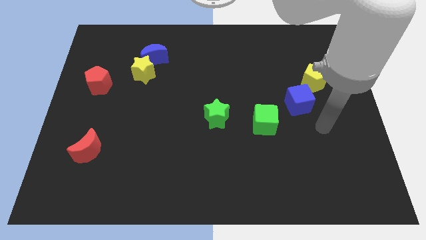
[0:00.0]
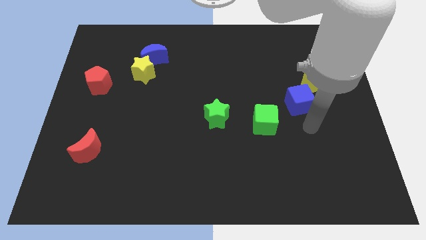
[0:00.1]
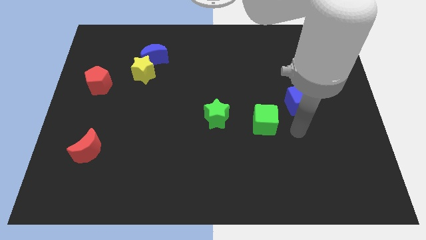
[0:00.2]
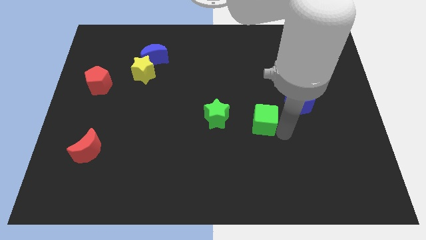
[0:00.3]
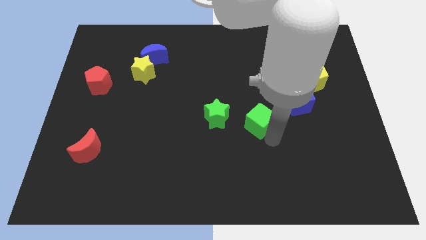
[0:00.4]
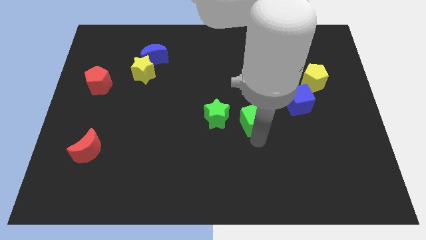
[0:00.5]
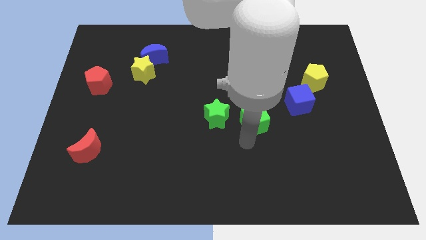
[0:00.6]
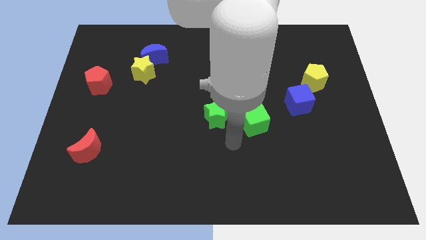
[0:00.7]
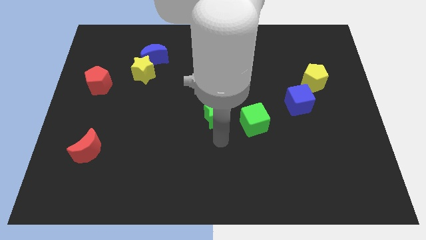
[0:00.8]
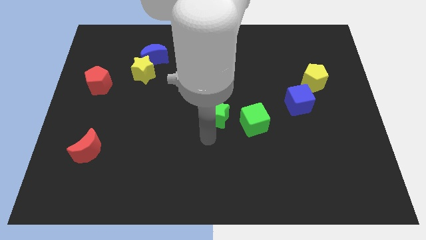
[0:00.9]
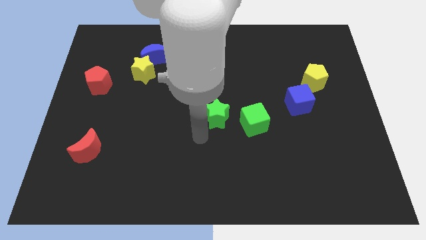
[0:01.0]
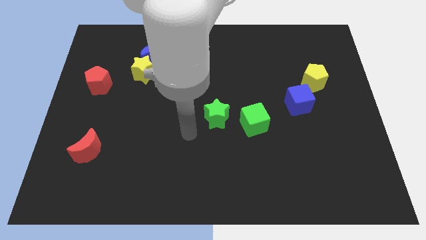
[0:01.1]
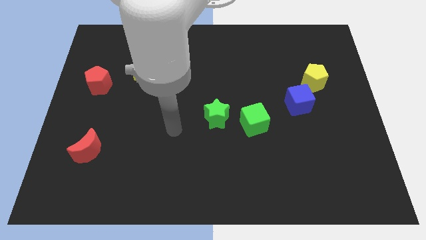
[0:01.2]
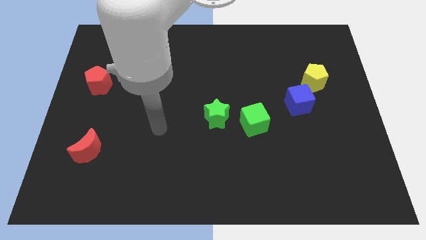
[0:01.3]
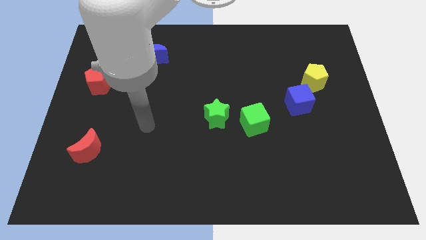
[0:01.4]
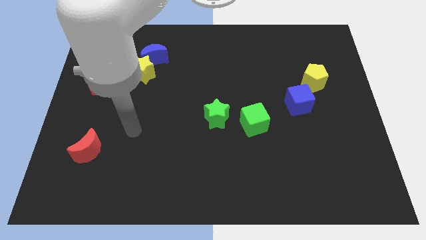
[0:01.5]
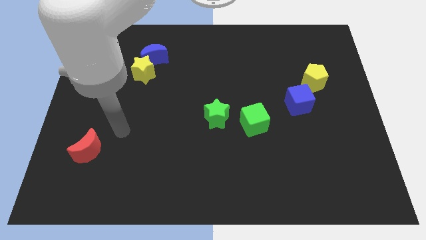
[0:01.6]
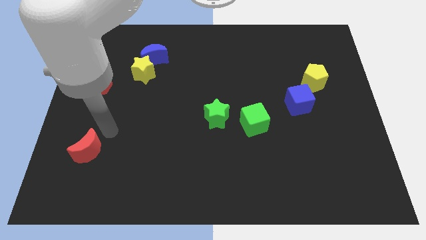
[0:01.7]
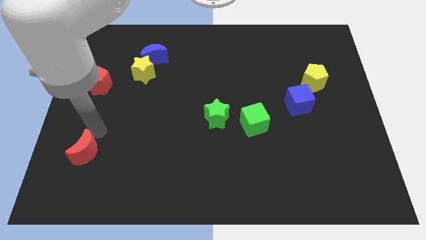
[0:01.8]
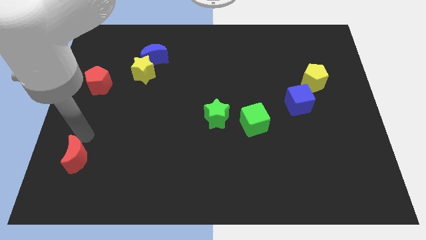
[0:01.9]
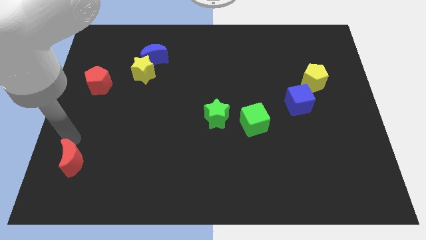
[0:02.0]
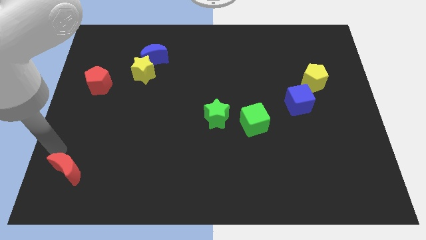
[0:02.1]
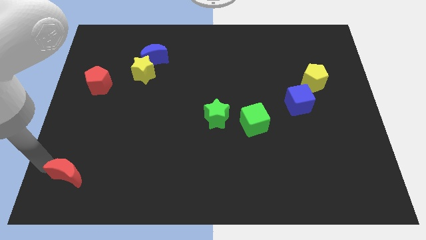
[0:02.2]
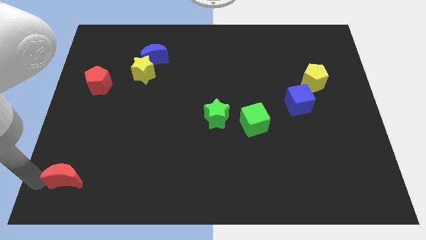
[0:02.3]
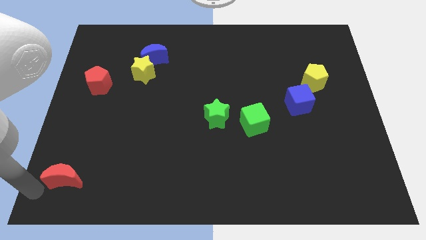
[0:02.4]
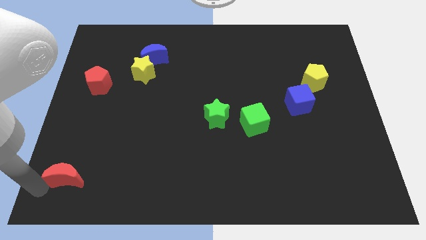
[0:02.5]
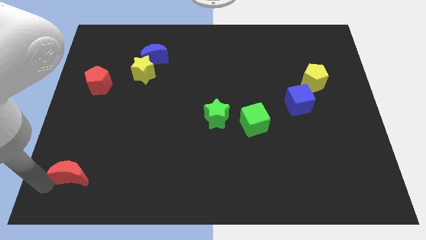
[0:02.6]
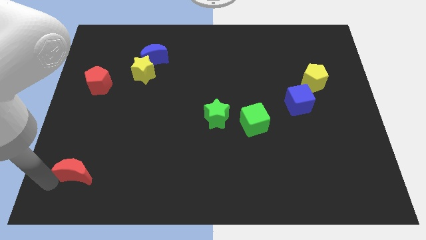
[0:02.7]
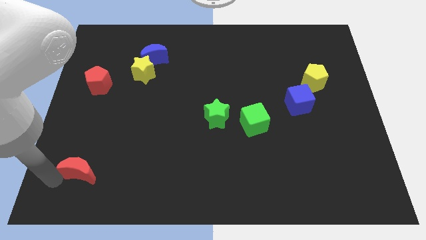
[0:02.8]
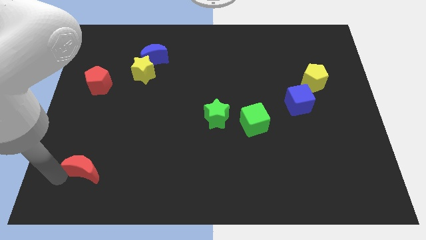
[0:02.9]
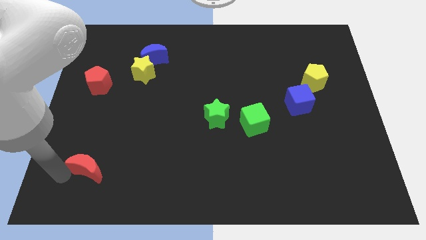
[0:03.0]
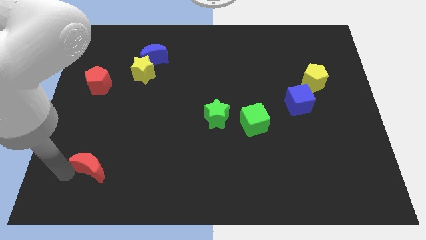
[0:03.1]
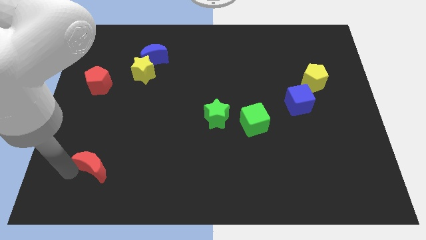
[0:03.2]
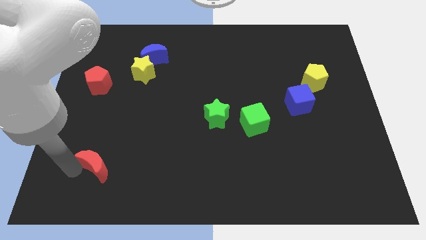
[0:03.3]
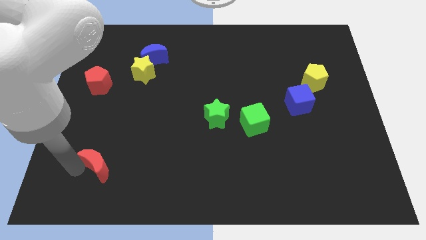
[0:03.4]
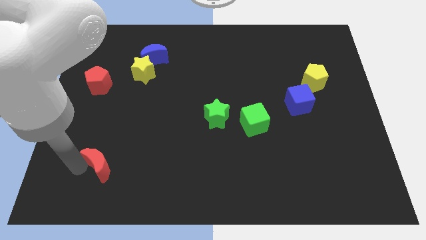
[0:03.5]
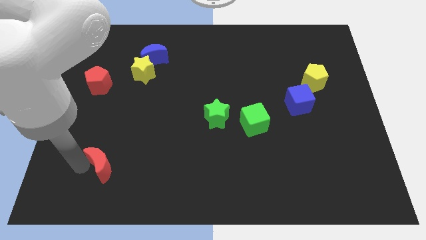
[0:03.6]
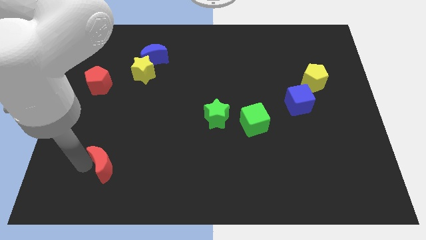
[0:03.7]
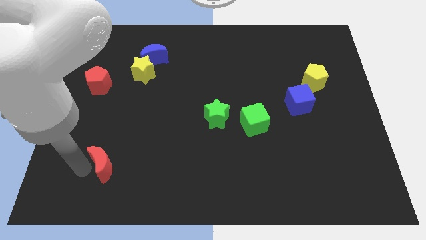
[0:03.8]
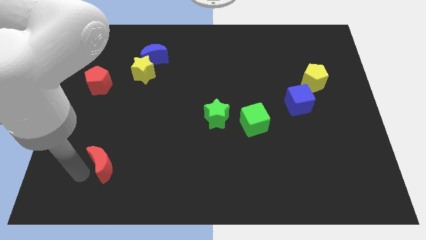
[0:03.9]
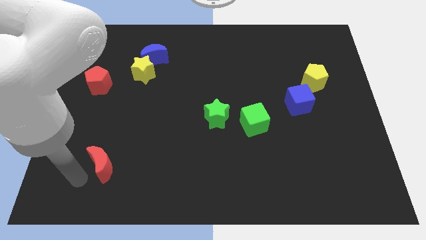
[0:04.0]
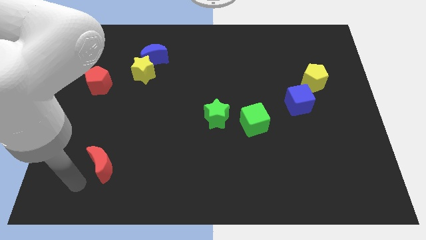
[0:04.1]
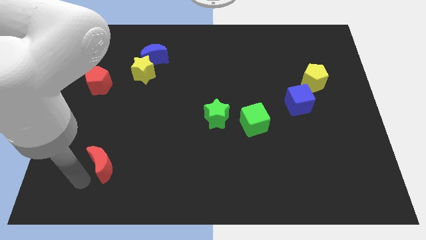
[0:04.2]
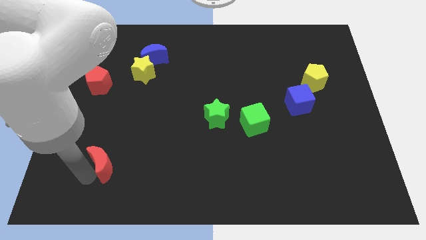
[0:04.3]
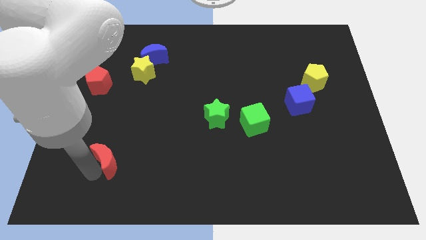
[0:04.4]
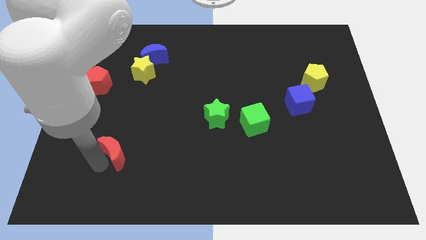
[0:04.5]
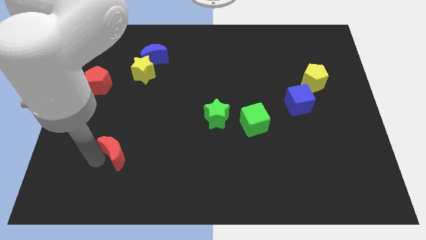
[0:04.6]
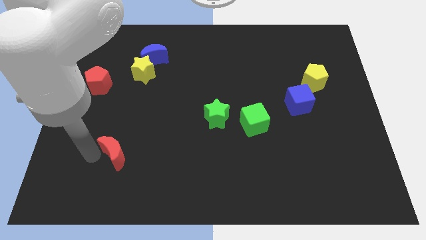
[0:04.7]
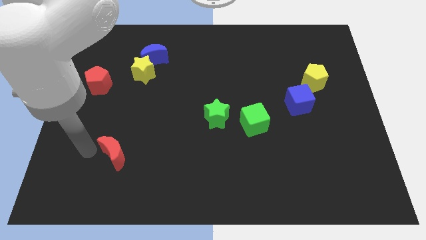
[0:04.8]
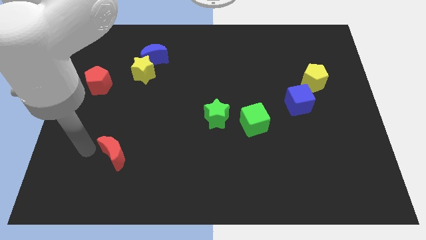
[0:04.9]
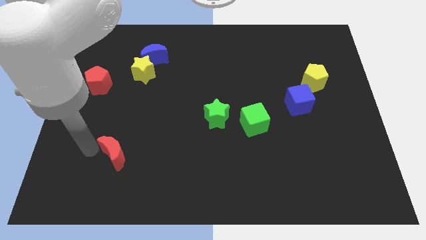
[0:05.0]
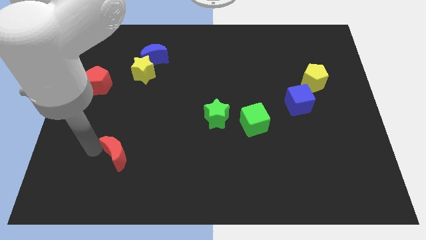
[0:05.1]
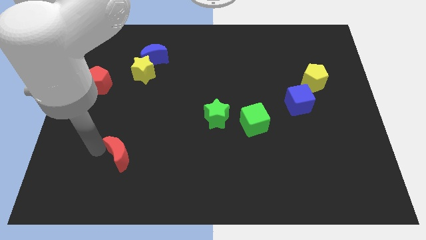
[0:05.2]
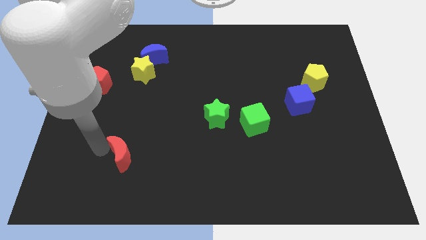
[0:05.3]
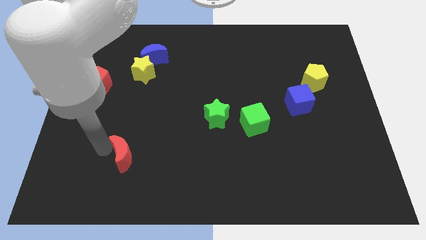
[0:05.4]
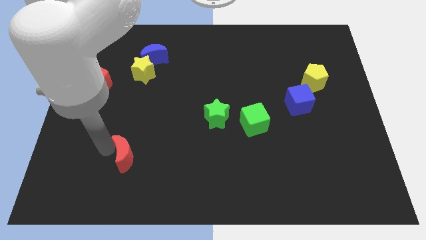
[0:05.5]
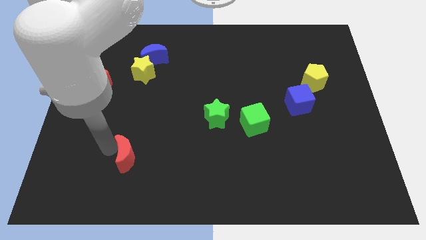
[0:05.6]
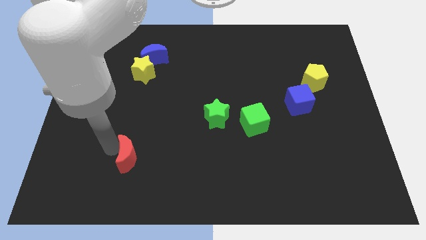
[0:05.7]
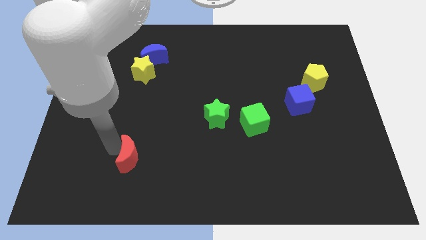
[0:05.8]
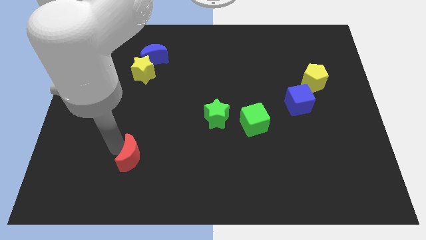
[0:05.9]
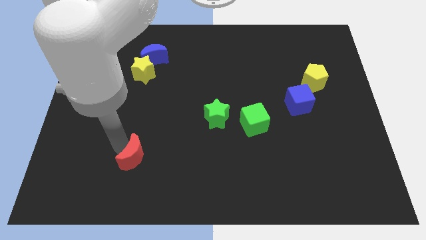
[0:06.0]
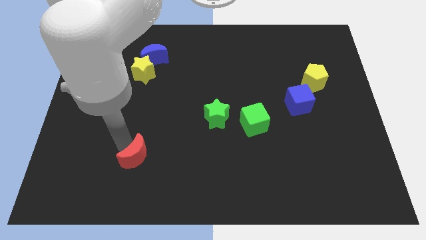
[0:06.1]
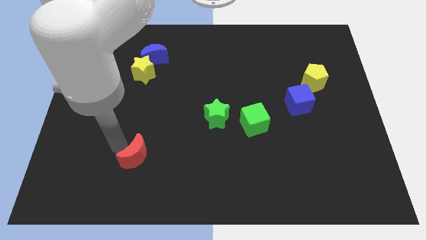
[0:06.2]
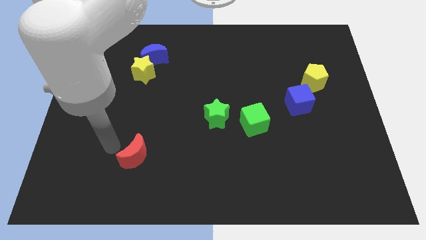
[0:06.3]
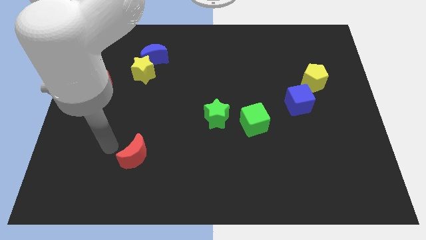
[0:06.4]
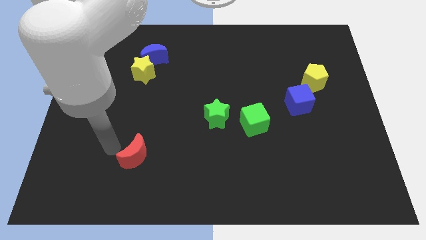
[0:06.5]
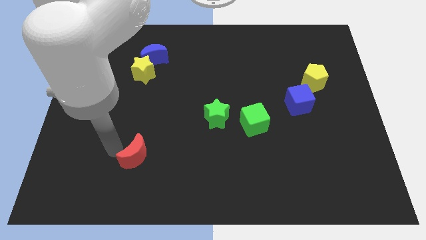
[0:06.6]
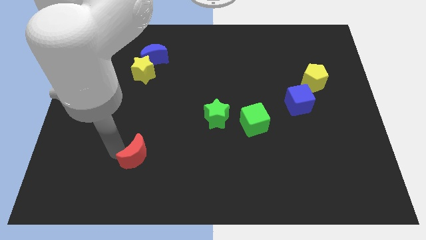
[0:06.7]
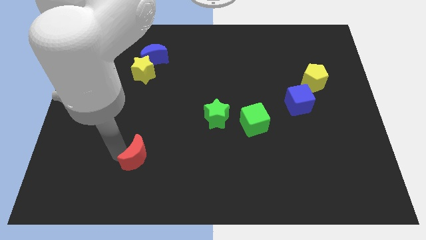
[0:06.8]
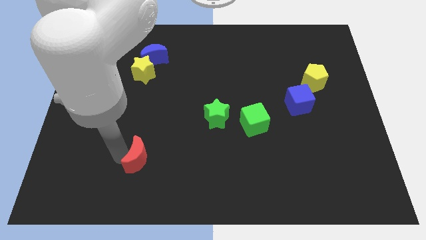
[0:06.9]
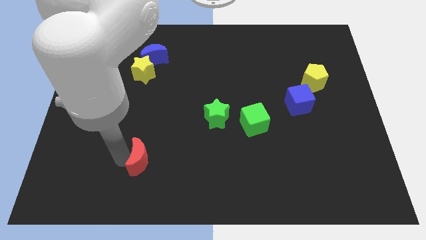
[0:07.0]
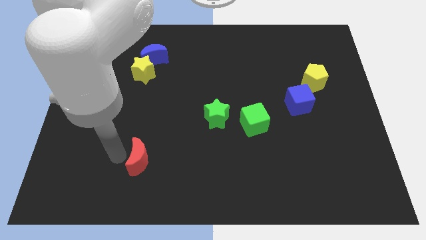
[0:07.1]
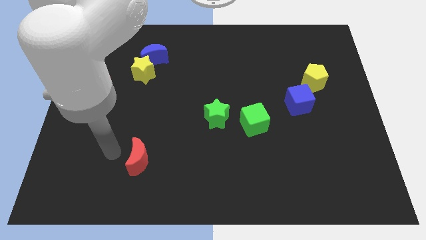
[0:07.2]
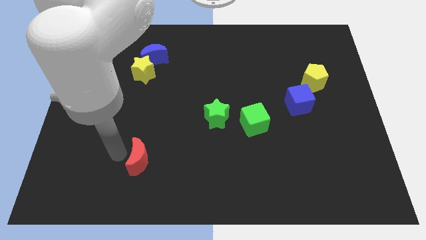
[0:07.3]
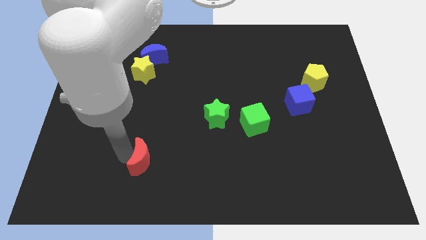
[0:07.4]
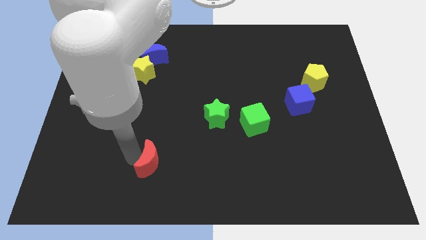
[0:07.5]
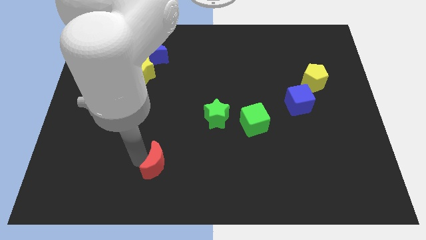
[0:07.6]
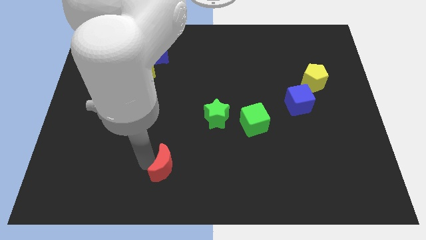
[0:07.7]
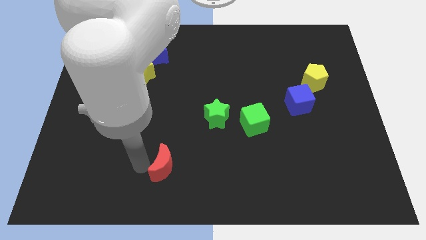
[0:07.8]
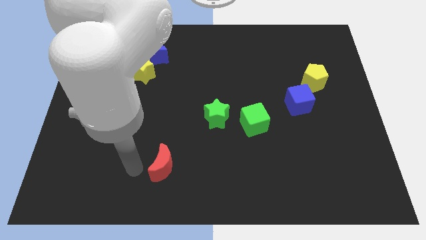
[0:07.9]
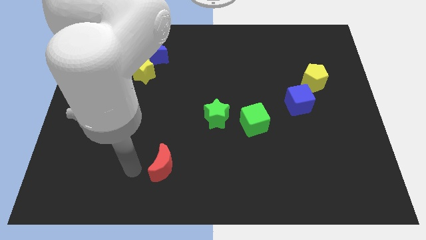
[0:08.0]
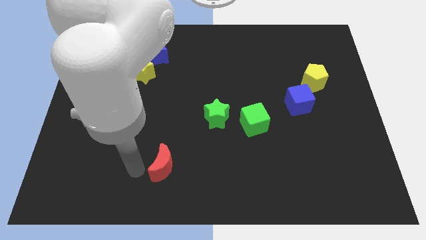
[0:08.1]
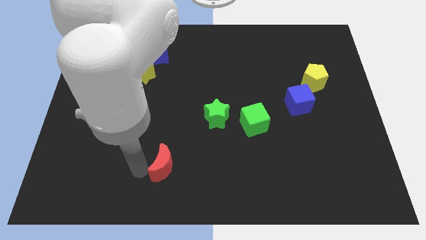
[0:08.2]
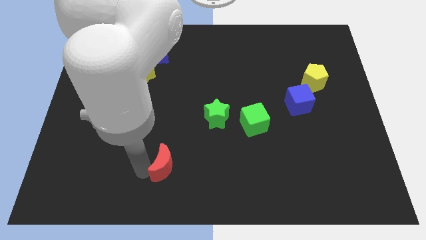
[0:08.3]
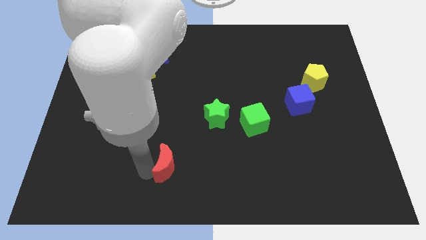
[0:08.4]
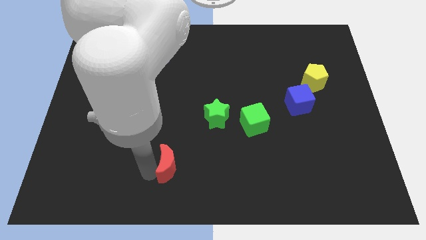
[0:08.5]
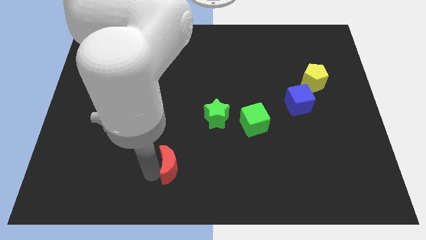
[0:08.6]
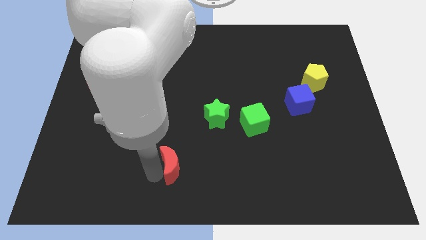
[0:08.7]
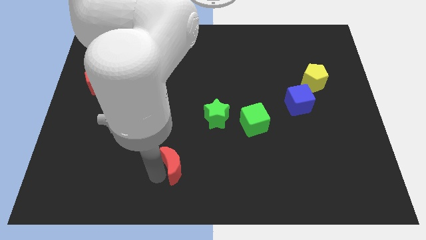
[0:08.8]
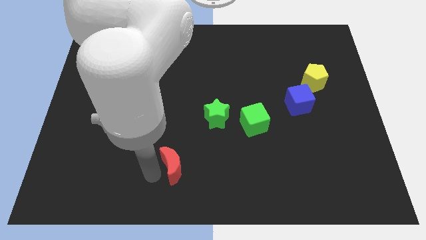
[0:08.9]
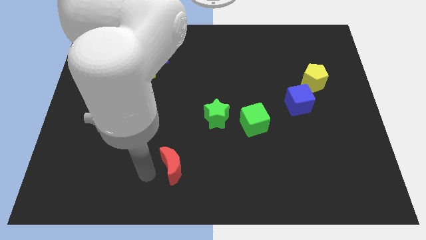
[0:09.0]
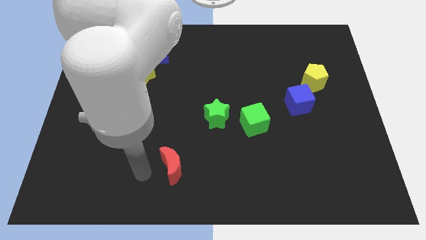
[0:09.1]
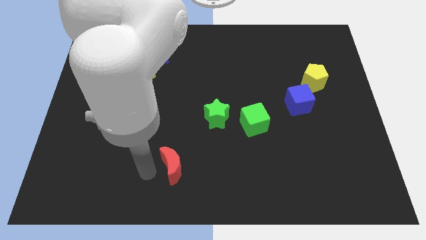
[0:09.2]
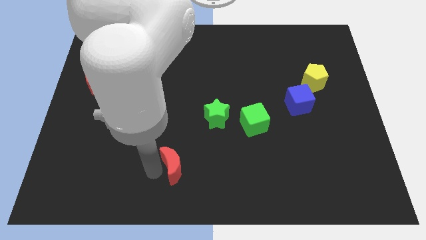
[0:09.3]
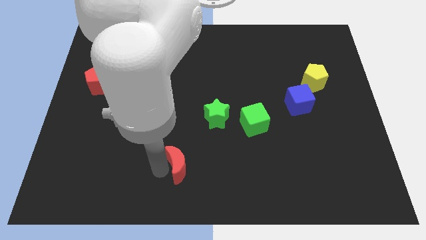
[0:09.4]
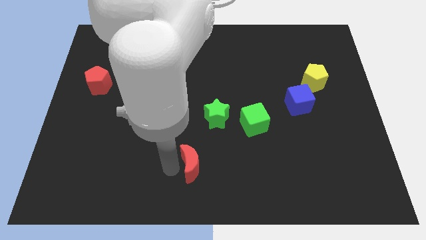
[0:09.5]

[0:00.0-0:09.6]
move the red moon right
